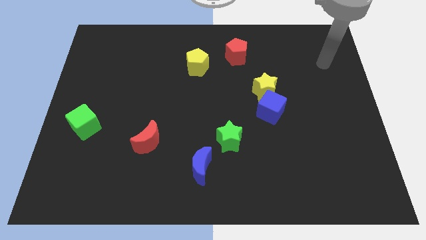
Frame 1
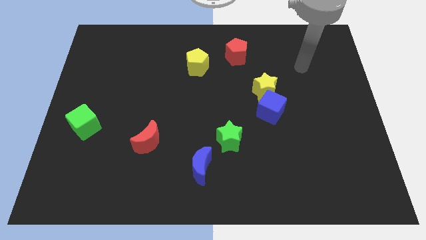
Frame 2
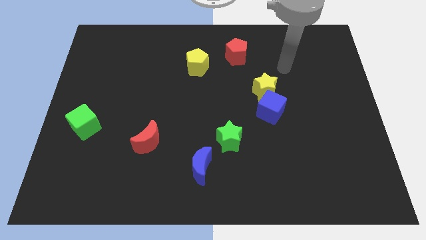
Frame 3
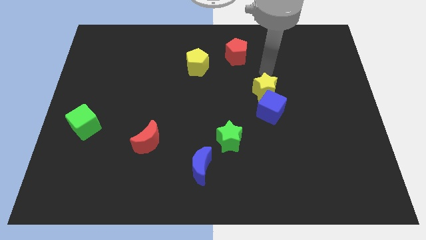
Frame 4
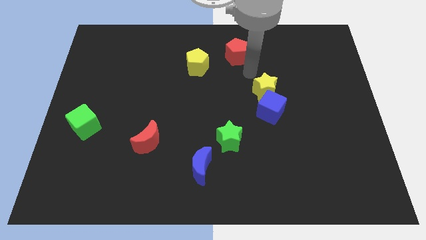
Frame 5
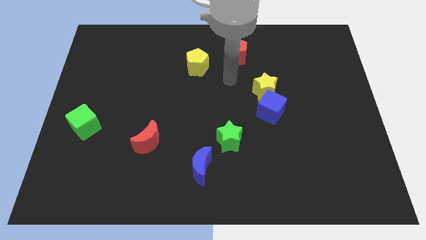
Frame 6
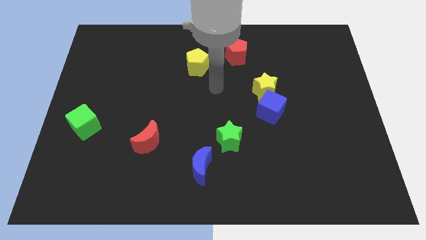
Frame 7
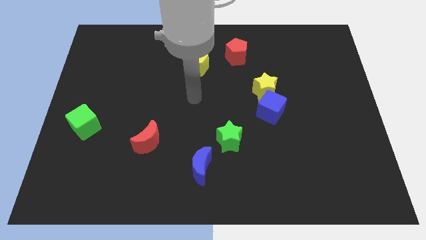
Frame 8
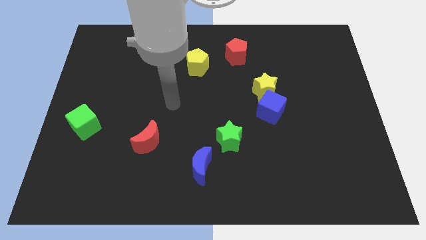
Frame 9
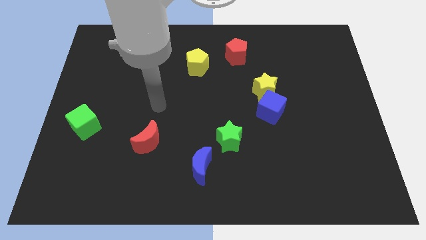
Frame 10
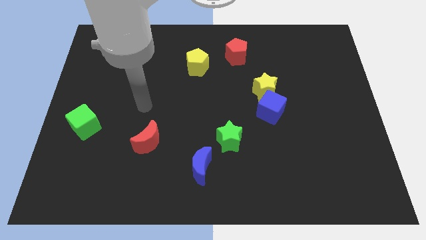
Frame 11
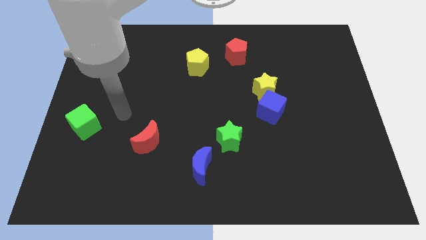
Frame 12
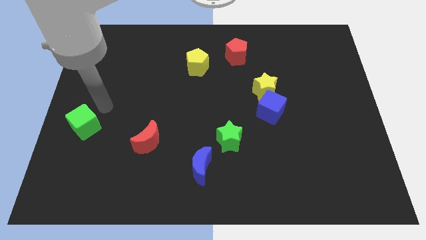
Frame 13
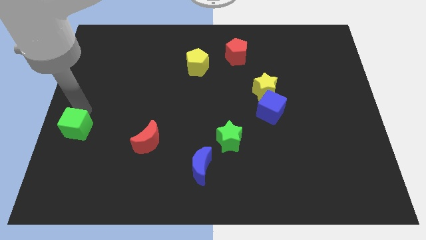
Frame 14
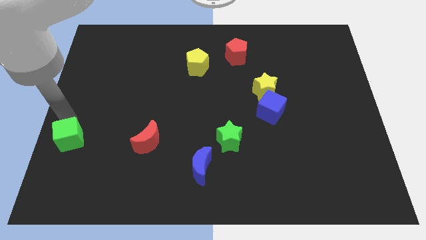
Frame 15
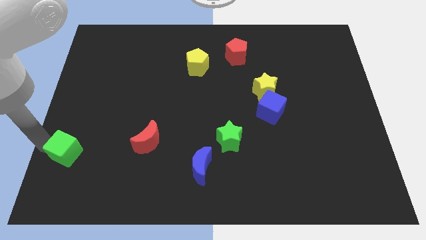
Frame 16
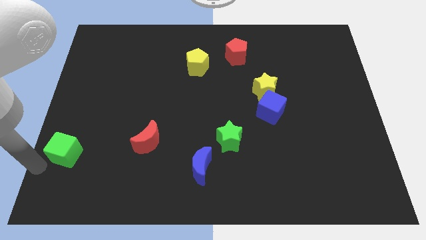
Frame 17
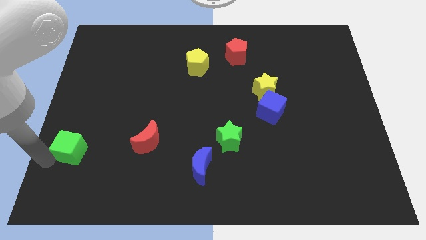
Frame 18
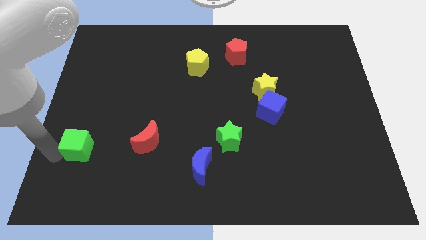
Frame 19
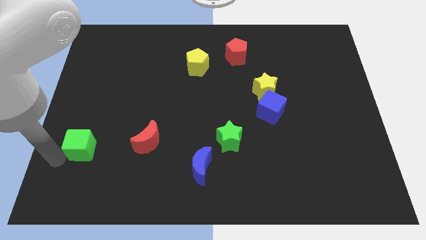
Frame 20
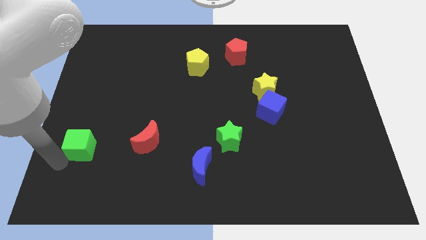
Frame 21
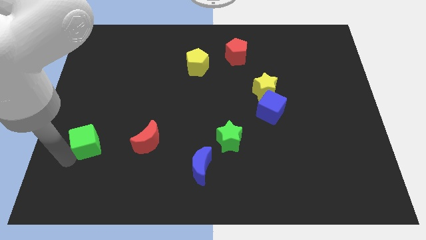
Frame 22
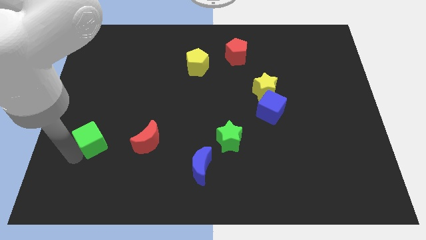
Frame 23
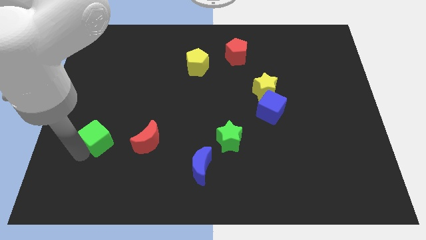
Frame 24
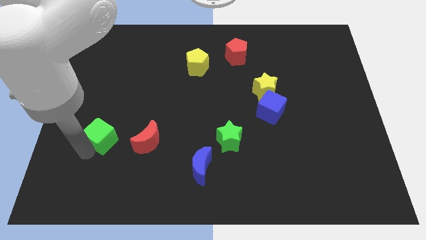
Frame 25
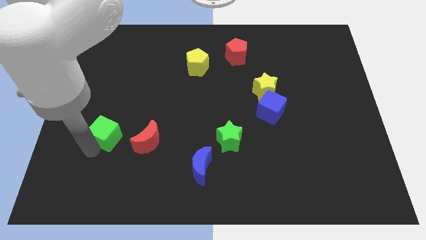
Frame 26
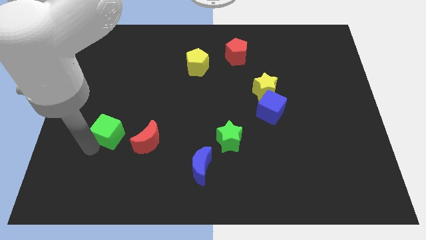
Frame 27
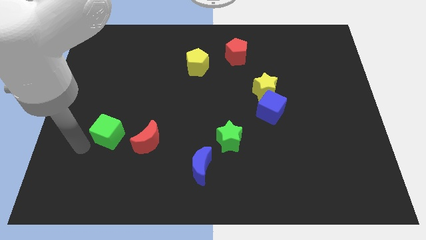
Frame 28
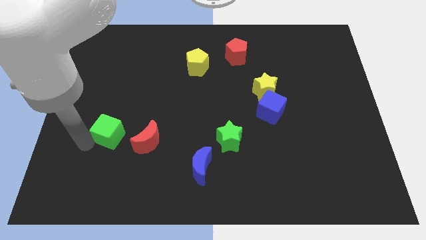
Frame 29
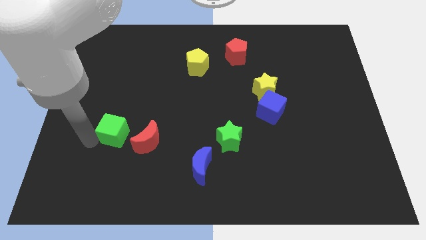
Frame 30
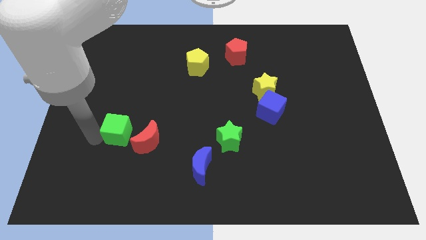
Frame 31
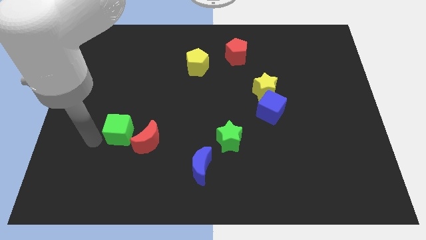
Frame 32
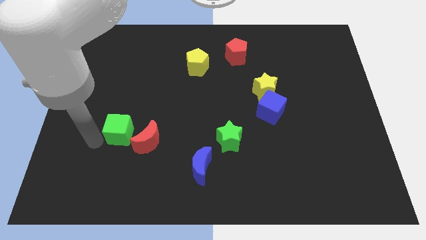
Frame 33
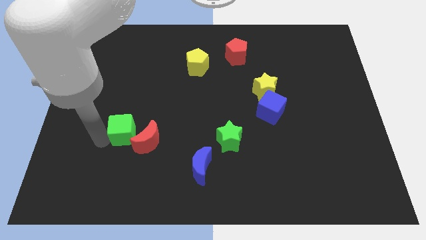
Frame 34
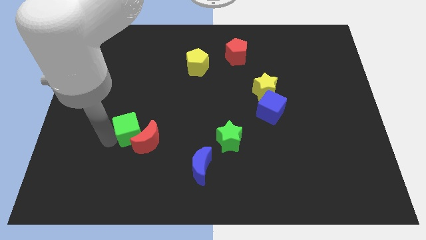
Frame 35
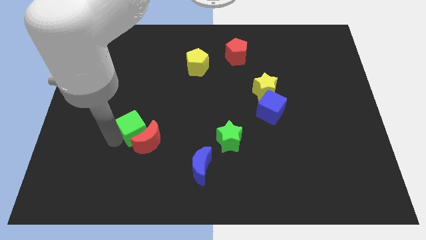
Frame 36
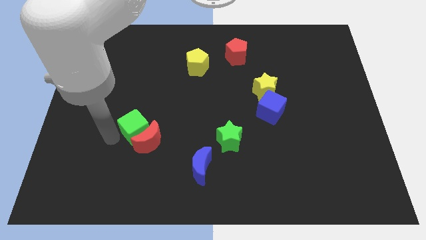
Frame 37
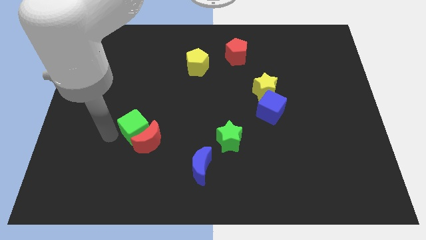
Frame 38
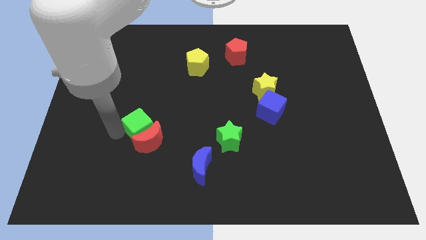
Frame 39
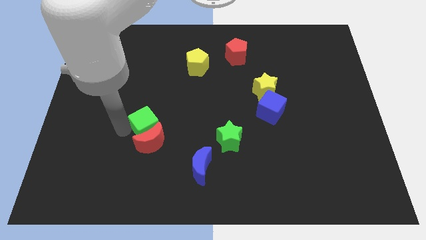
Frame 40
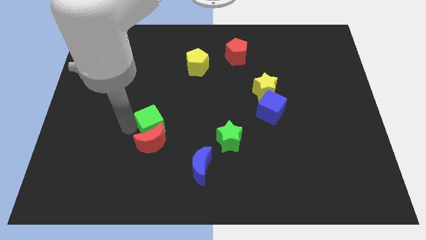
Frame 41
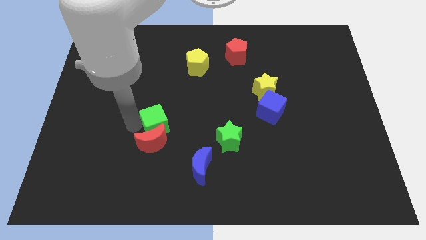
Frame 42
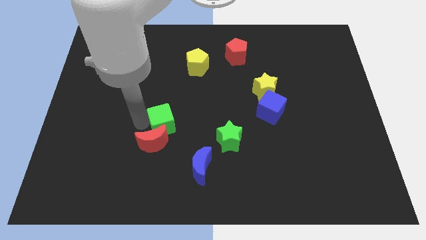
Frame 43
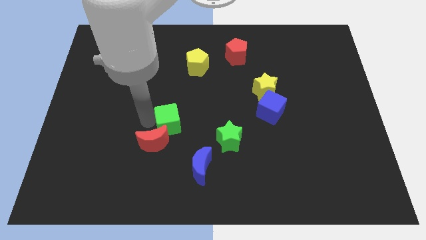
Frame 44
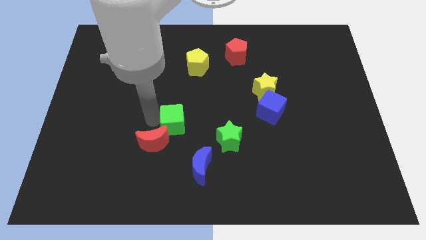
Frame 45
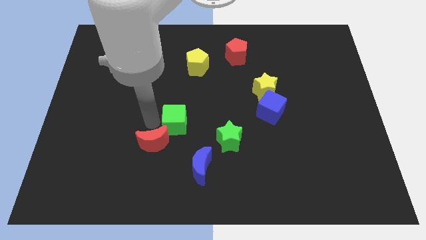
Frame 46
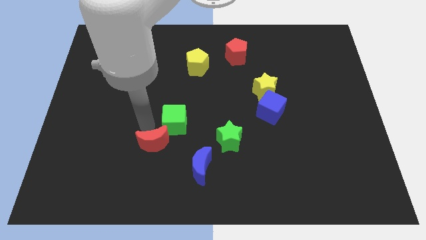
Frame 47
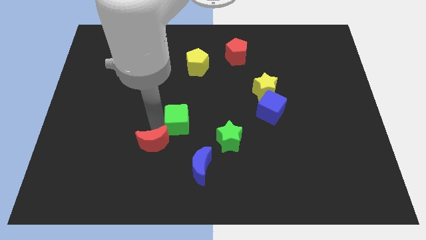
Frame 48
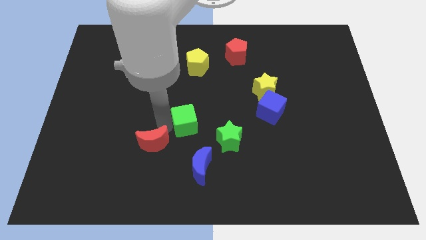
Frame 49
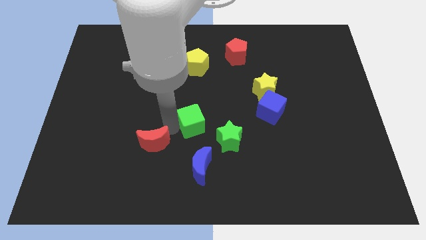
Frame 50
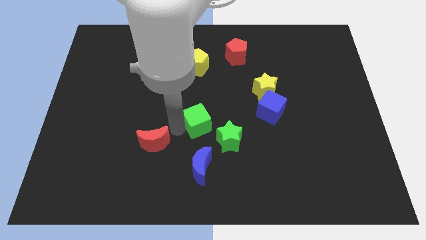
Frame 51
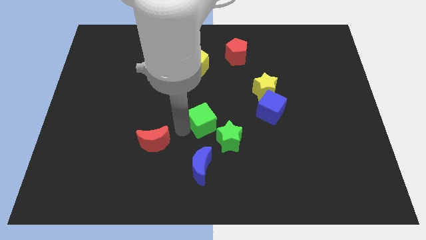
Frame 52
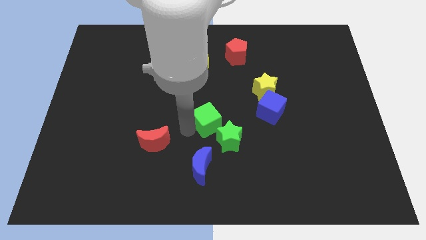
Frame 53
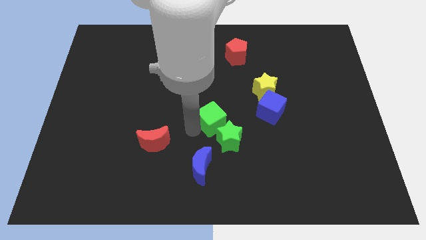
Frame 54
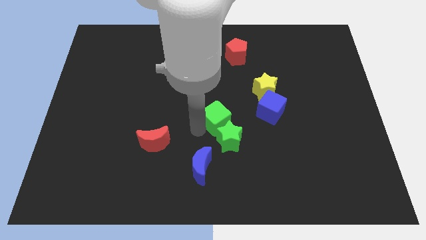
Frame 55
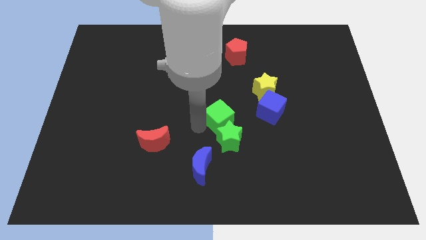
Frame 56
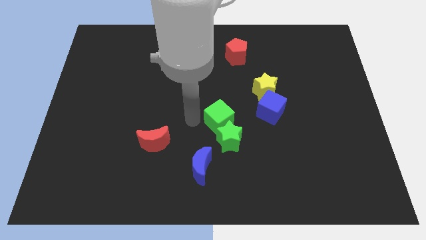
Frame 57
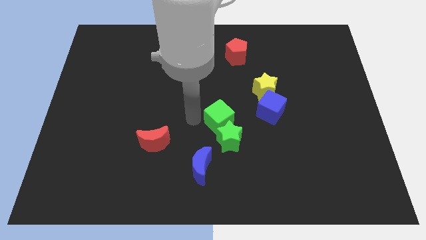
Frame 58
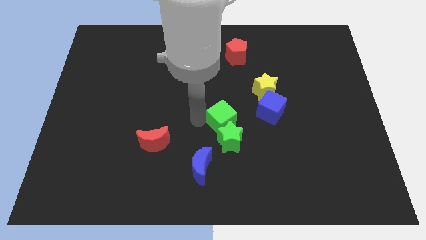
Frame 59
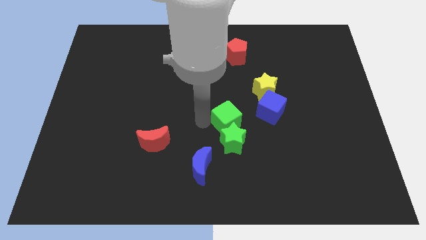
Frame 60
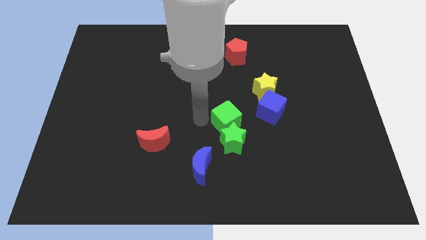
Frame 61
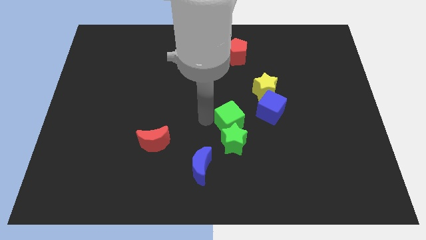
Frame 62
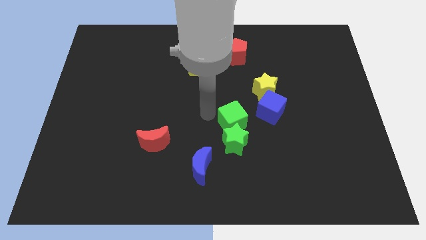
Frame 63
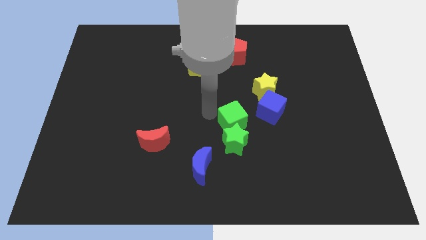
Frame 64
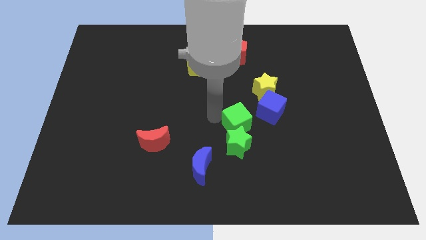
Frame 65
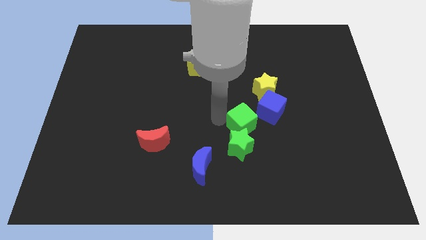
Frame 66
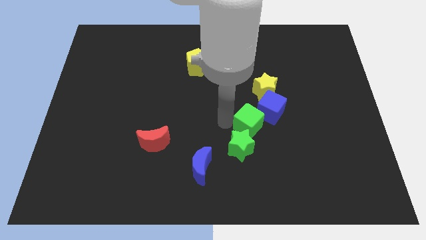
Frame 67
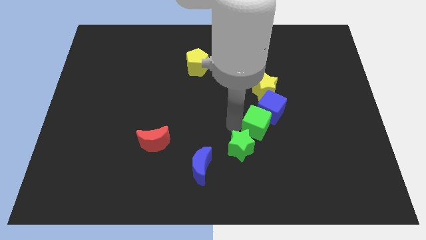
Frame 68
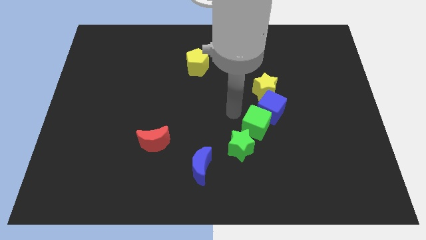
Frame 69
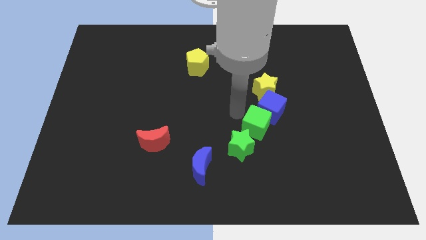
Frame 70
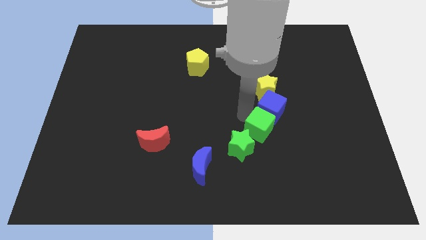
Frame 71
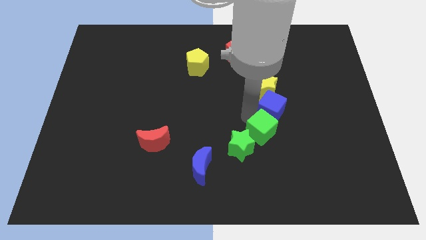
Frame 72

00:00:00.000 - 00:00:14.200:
push the green cube to the right of the green star

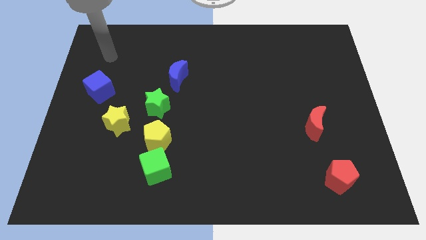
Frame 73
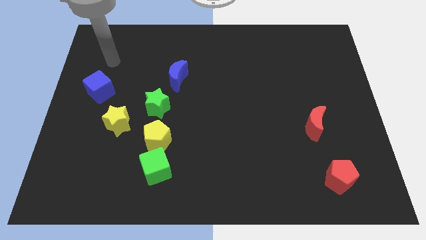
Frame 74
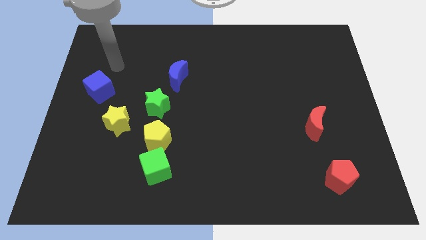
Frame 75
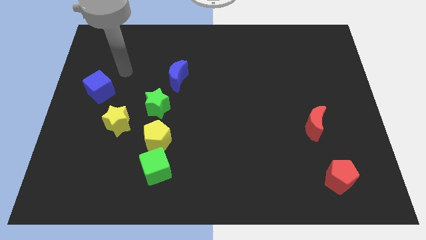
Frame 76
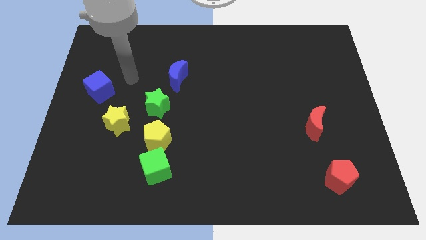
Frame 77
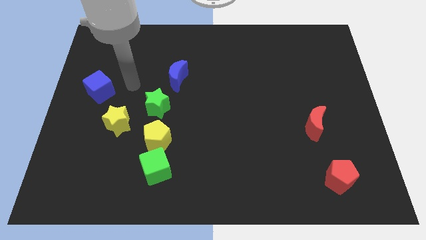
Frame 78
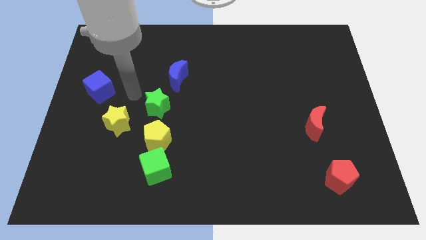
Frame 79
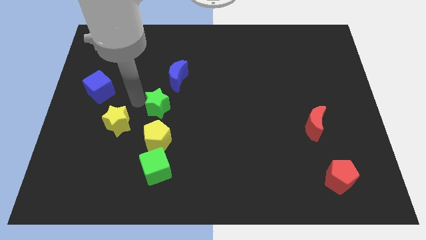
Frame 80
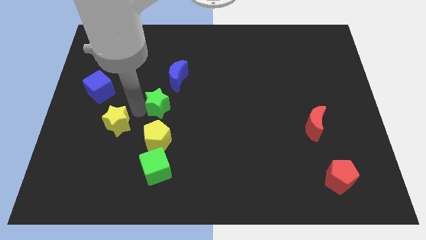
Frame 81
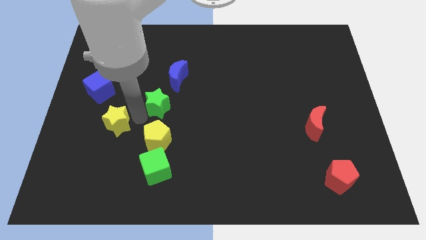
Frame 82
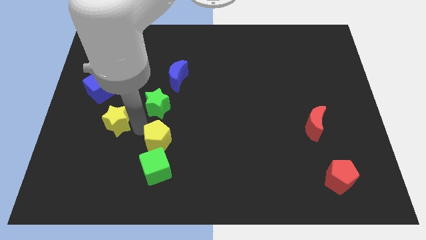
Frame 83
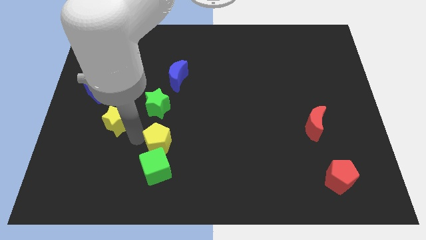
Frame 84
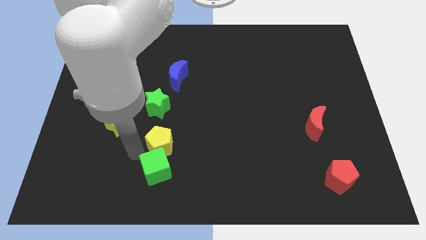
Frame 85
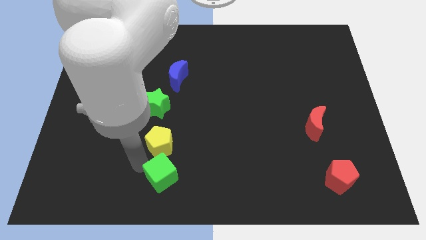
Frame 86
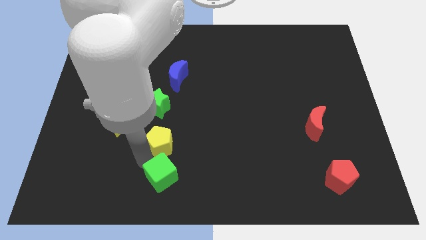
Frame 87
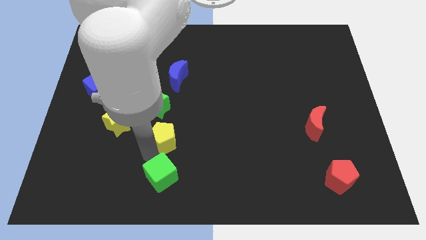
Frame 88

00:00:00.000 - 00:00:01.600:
push the yellow pentagon diagonally down and to the right of the green star
